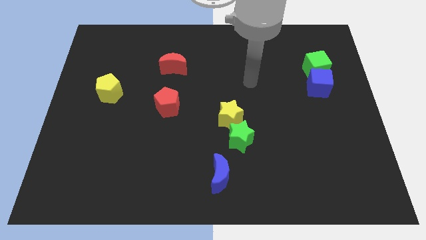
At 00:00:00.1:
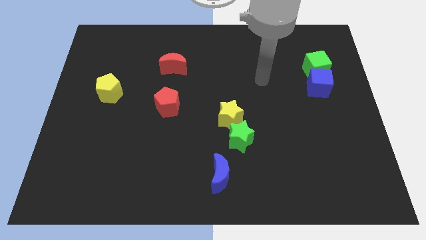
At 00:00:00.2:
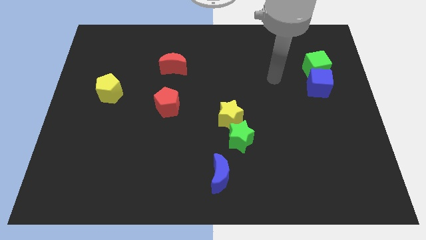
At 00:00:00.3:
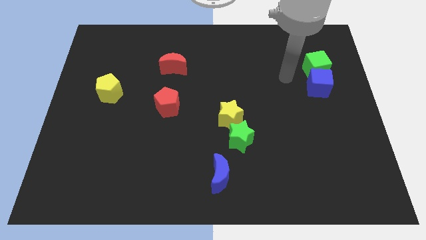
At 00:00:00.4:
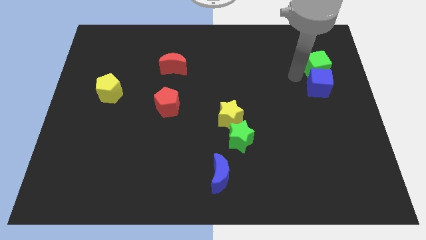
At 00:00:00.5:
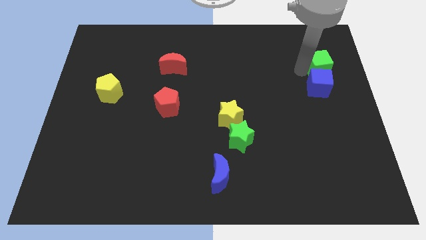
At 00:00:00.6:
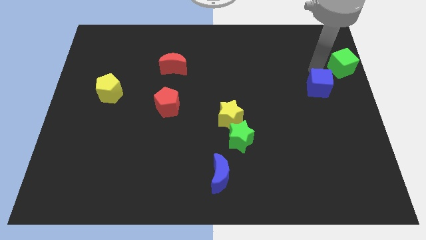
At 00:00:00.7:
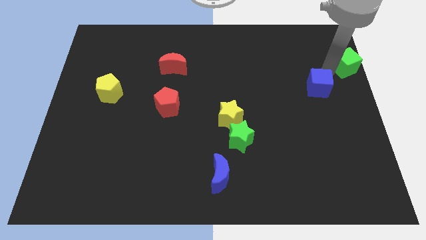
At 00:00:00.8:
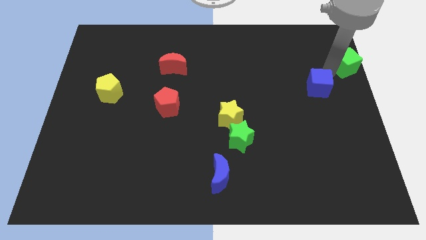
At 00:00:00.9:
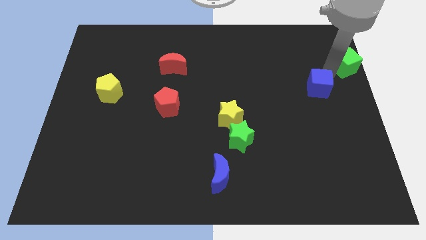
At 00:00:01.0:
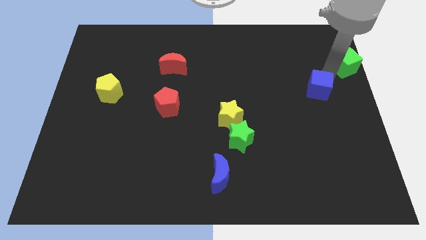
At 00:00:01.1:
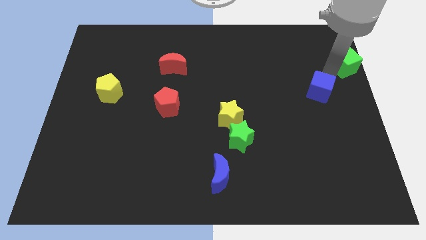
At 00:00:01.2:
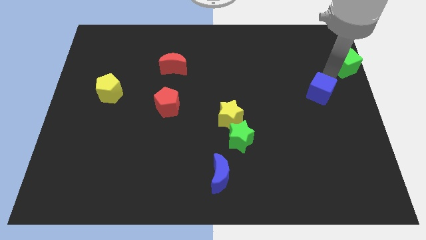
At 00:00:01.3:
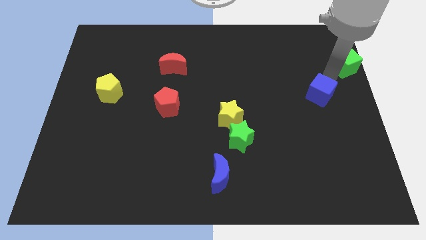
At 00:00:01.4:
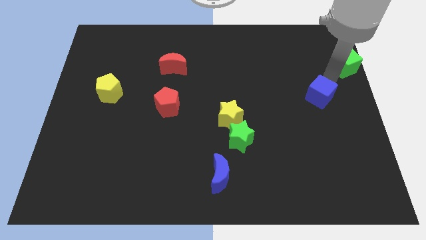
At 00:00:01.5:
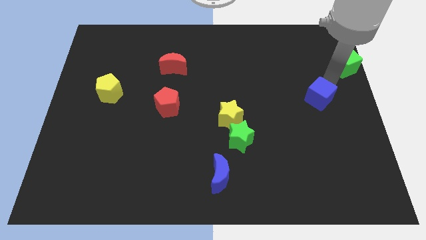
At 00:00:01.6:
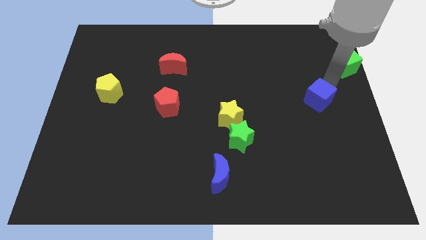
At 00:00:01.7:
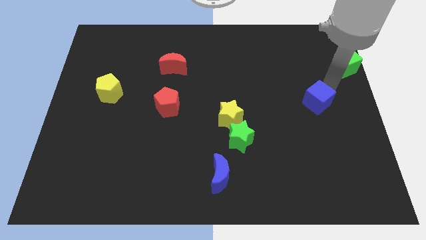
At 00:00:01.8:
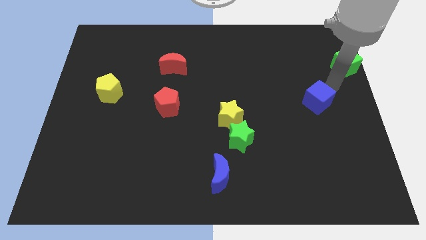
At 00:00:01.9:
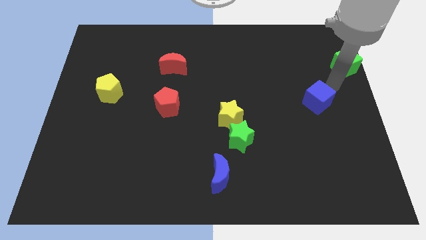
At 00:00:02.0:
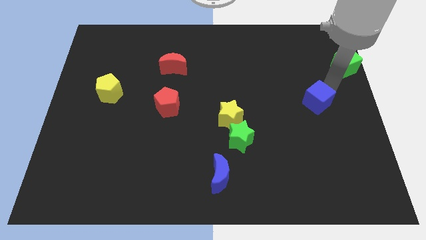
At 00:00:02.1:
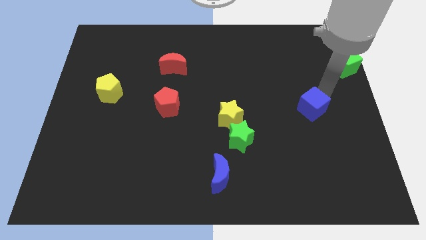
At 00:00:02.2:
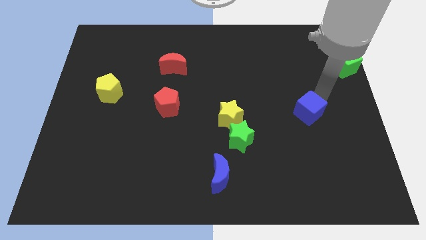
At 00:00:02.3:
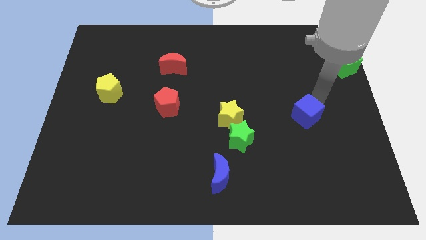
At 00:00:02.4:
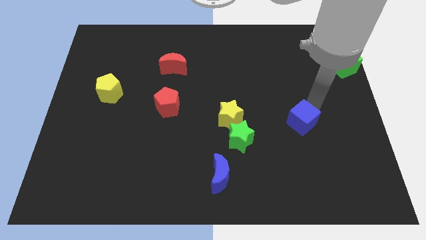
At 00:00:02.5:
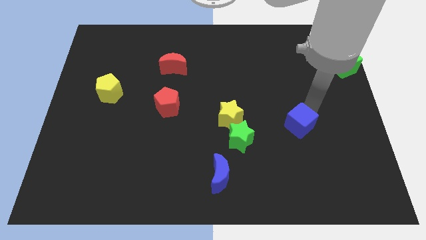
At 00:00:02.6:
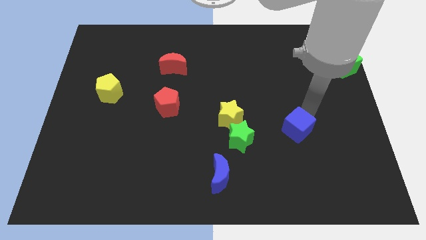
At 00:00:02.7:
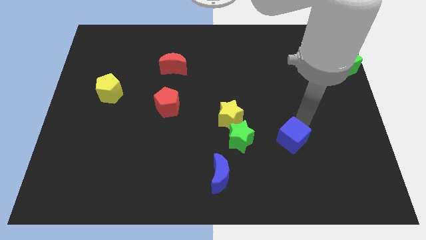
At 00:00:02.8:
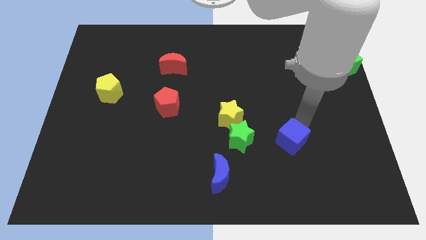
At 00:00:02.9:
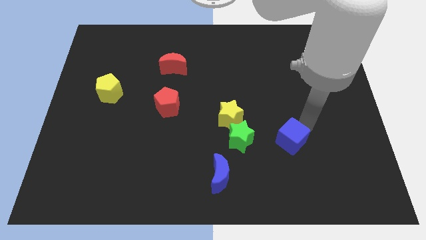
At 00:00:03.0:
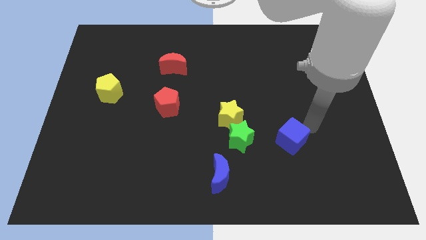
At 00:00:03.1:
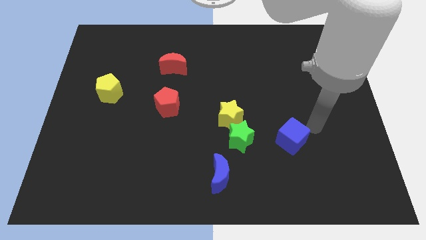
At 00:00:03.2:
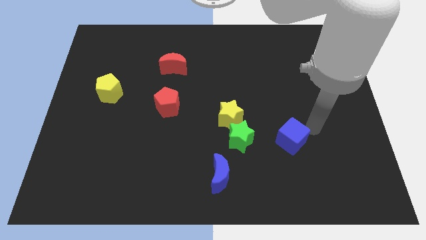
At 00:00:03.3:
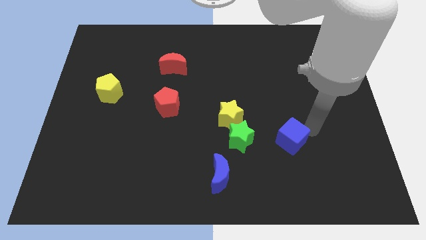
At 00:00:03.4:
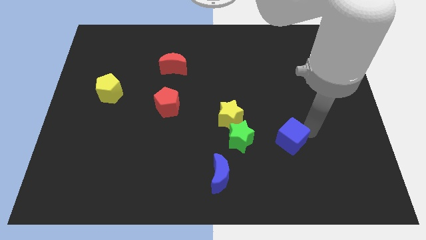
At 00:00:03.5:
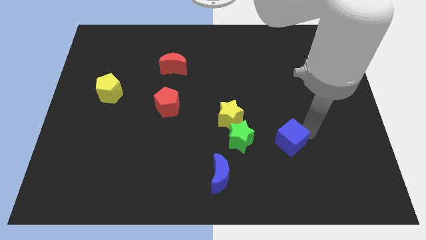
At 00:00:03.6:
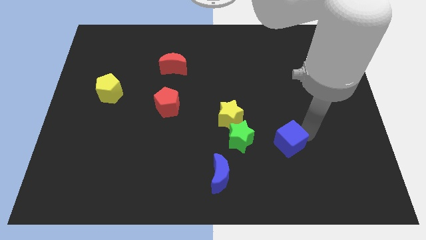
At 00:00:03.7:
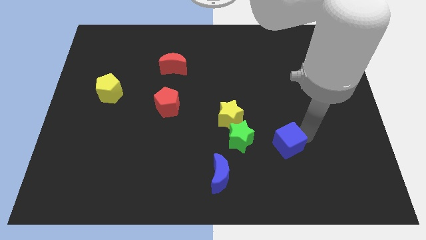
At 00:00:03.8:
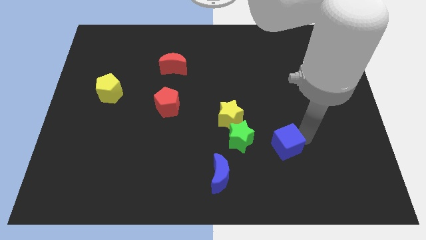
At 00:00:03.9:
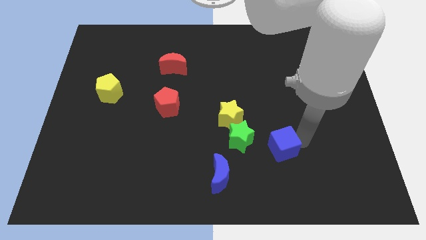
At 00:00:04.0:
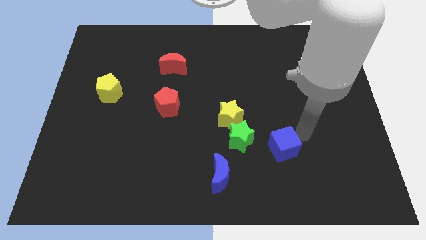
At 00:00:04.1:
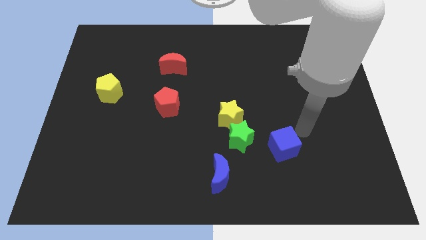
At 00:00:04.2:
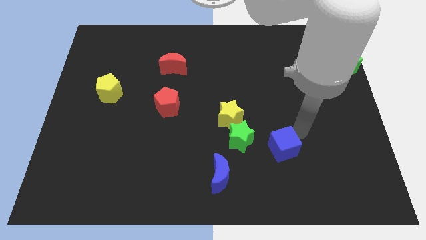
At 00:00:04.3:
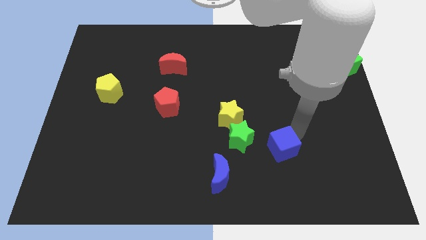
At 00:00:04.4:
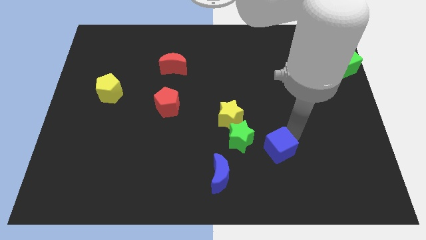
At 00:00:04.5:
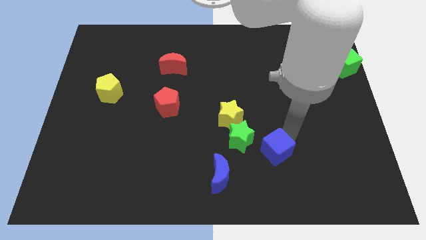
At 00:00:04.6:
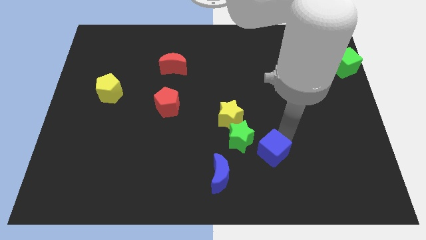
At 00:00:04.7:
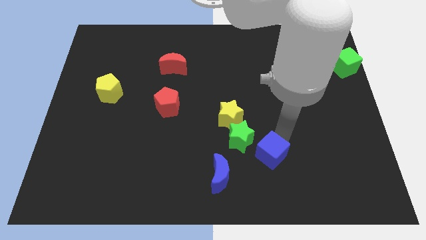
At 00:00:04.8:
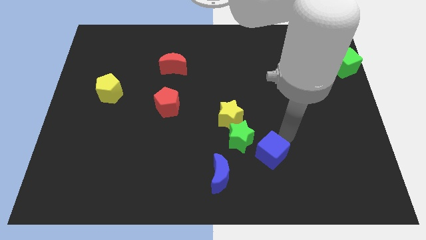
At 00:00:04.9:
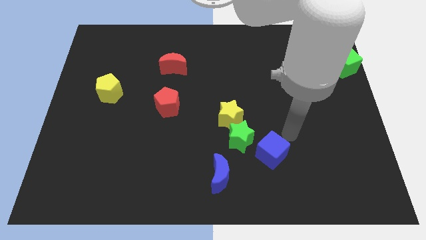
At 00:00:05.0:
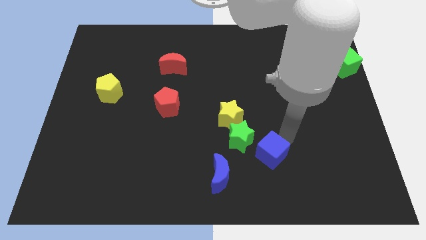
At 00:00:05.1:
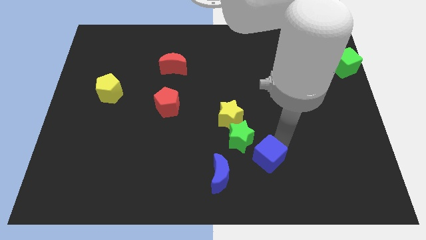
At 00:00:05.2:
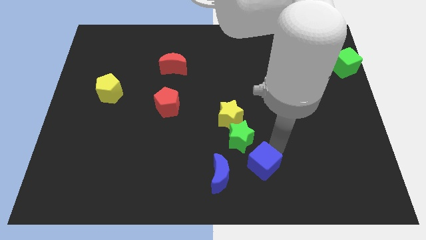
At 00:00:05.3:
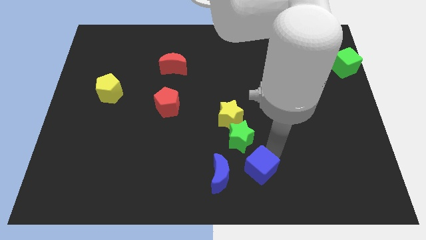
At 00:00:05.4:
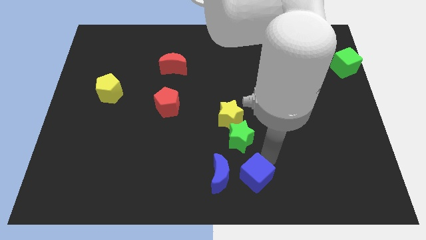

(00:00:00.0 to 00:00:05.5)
put the blue cube to the bottom side

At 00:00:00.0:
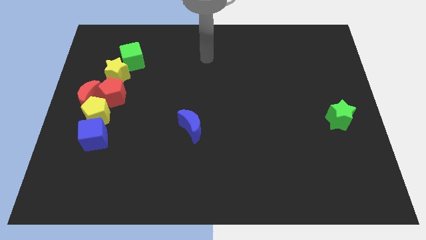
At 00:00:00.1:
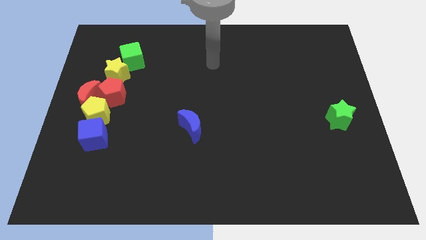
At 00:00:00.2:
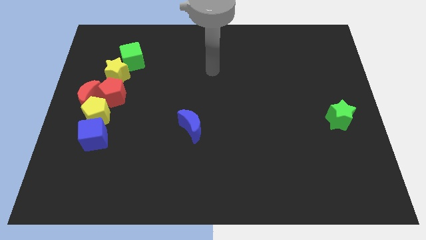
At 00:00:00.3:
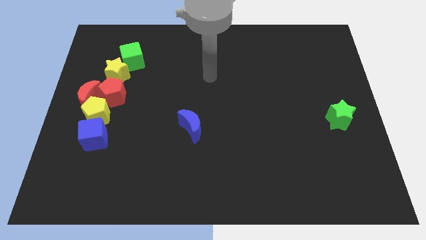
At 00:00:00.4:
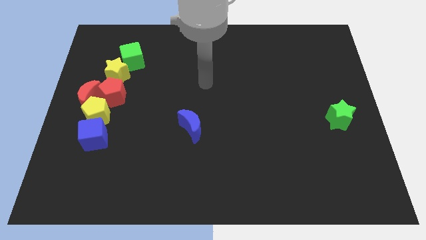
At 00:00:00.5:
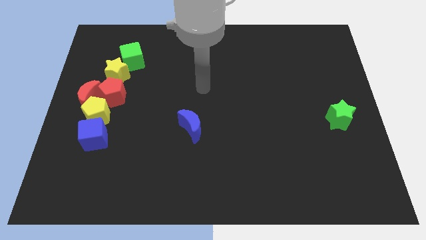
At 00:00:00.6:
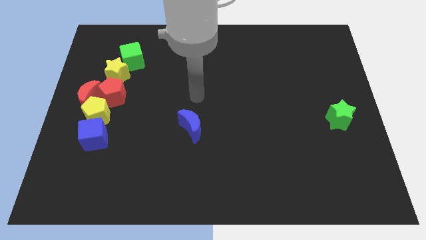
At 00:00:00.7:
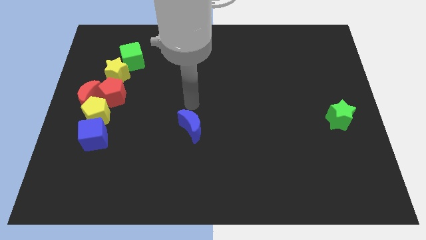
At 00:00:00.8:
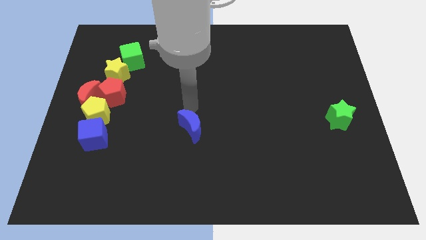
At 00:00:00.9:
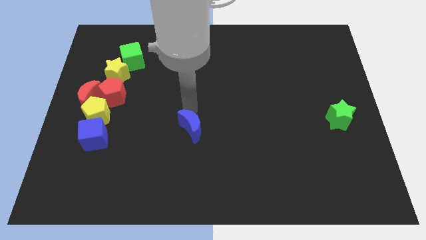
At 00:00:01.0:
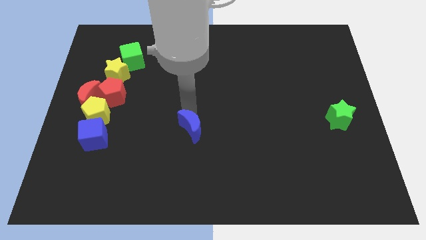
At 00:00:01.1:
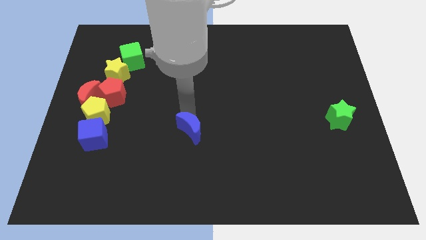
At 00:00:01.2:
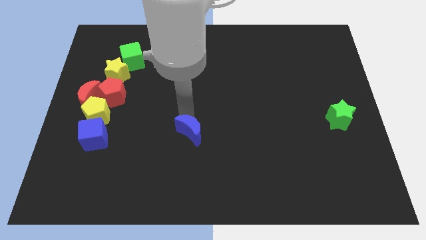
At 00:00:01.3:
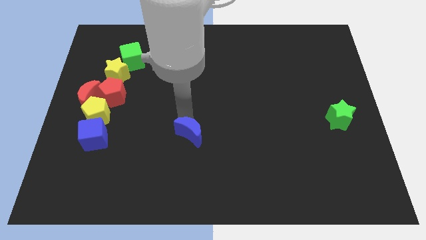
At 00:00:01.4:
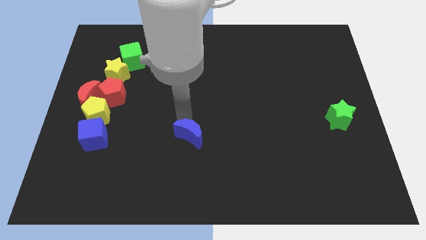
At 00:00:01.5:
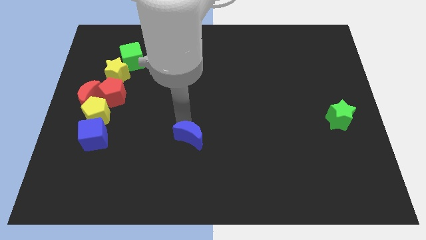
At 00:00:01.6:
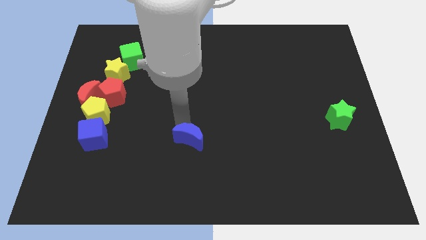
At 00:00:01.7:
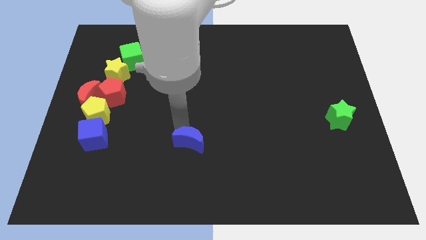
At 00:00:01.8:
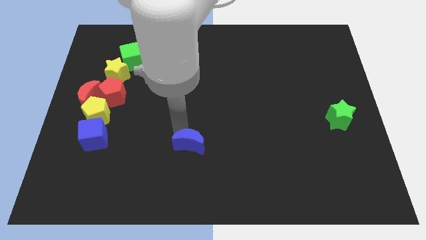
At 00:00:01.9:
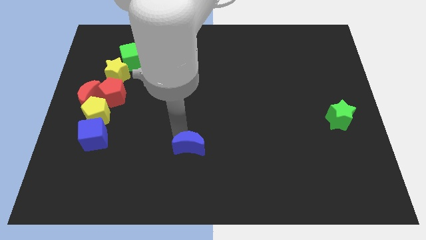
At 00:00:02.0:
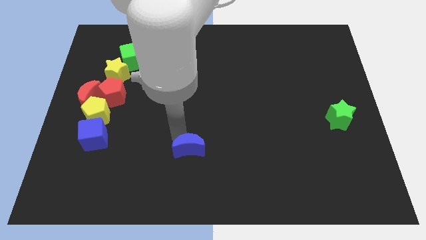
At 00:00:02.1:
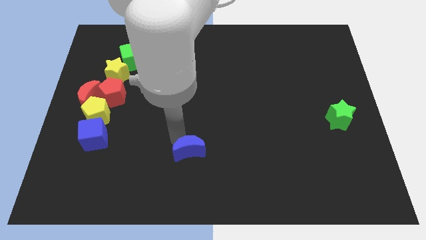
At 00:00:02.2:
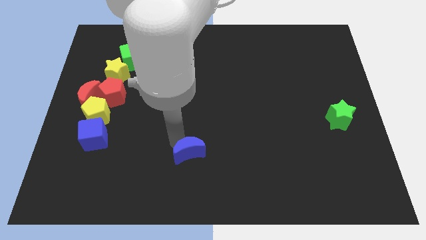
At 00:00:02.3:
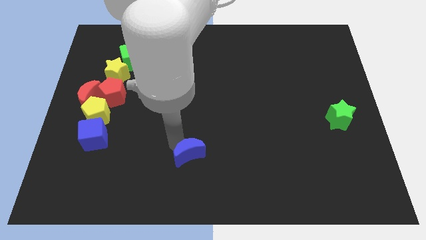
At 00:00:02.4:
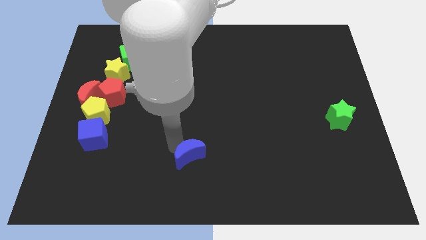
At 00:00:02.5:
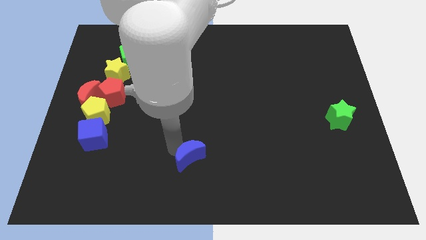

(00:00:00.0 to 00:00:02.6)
move the blue moon to the bottom
